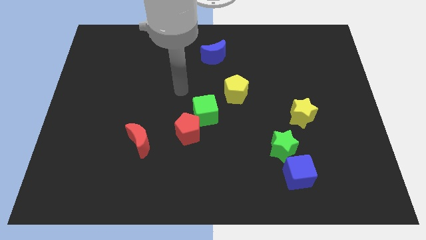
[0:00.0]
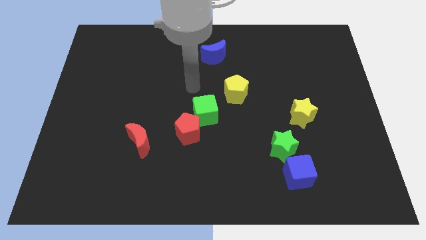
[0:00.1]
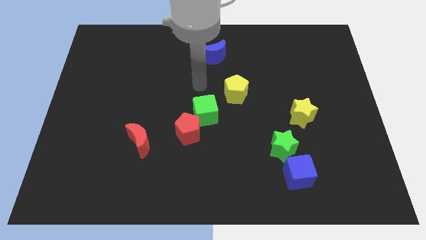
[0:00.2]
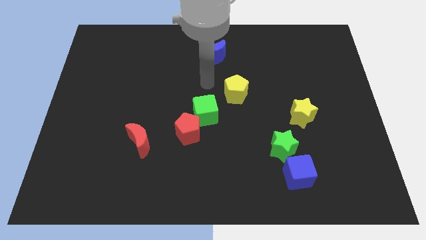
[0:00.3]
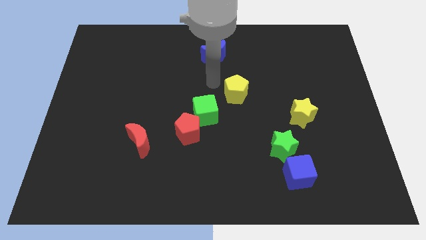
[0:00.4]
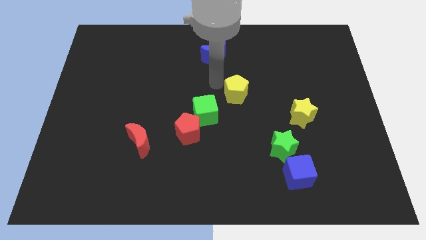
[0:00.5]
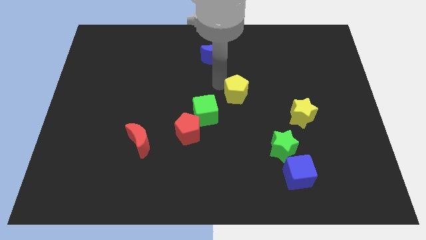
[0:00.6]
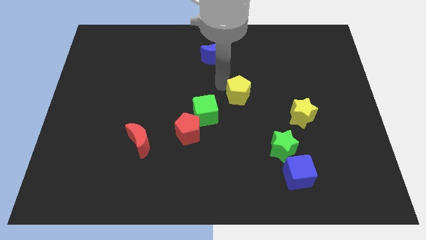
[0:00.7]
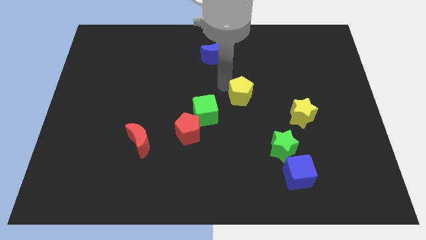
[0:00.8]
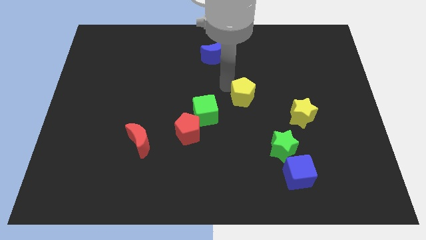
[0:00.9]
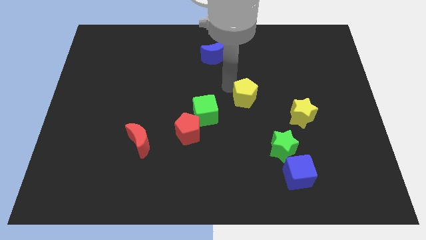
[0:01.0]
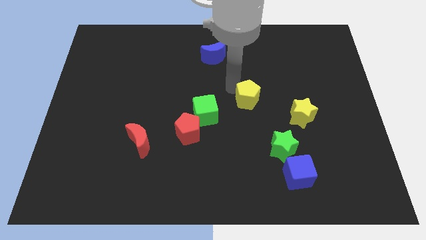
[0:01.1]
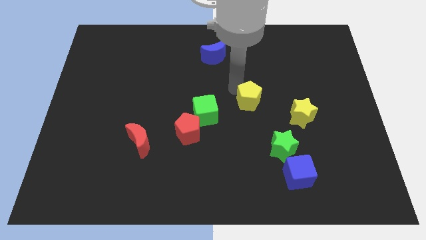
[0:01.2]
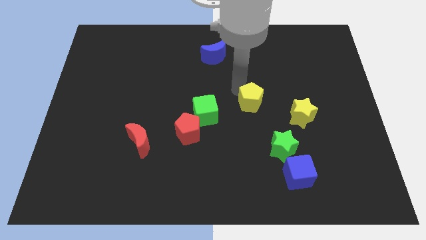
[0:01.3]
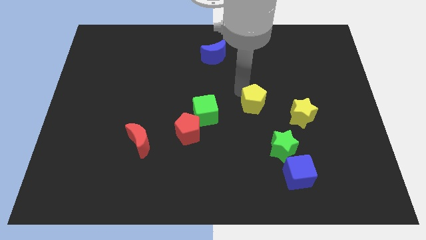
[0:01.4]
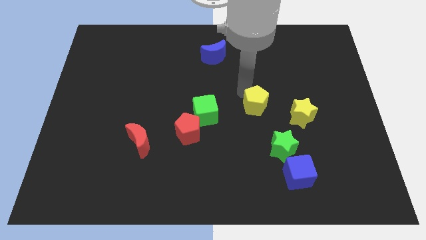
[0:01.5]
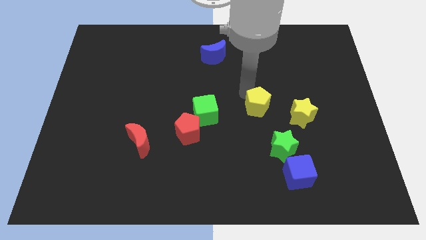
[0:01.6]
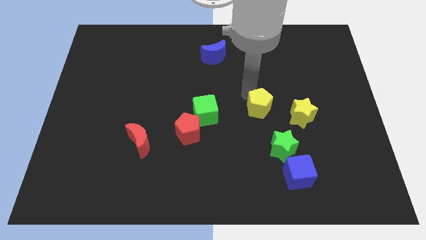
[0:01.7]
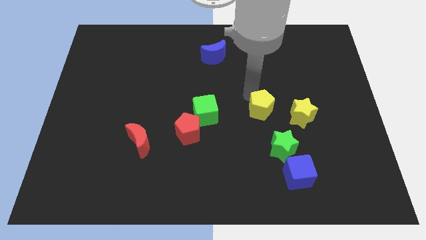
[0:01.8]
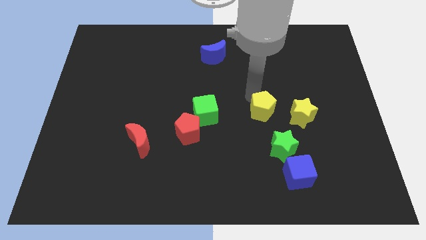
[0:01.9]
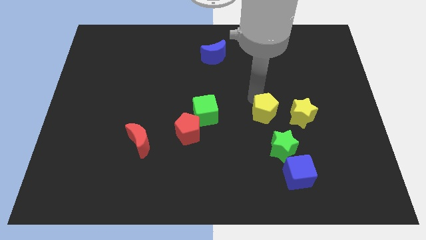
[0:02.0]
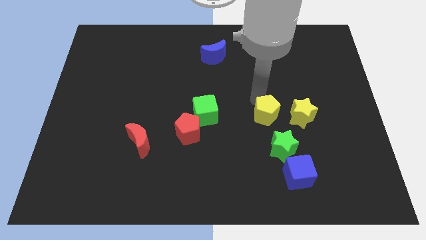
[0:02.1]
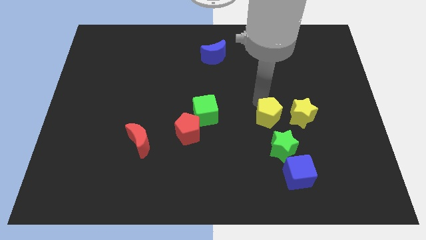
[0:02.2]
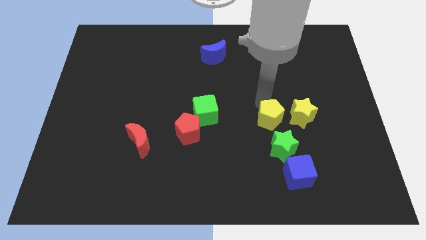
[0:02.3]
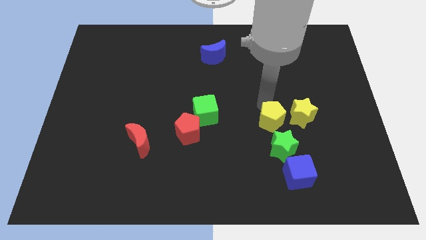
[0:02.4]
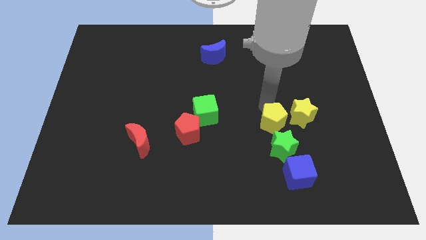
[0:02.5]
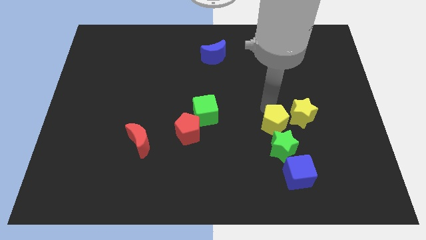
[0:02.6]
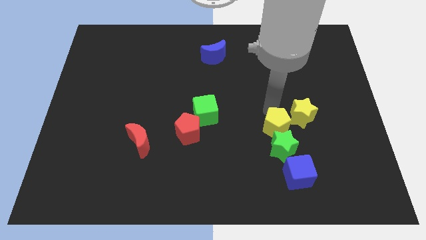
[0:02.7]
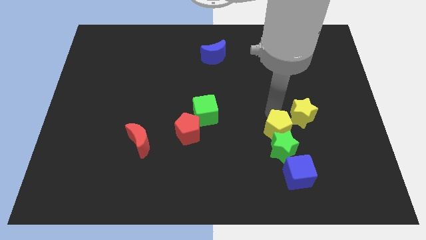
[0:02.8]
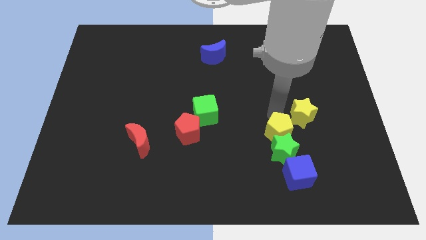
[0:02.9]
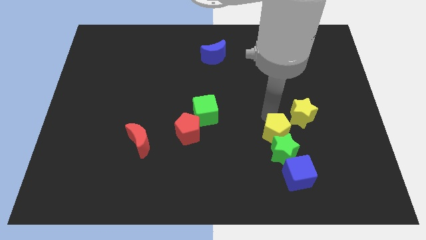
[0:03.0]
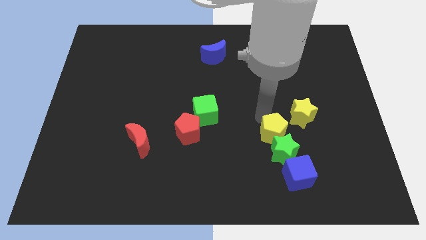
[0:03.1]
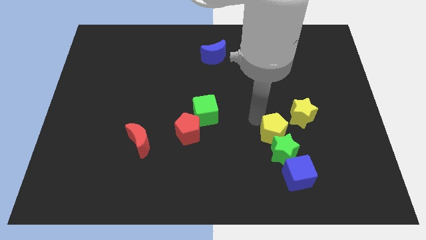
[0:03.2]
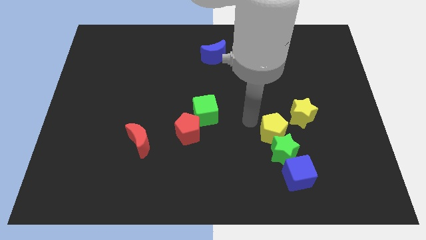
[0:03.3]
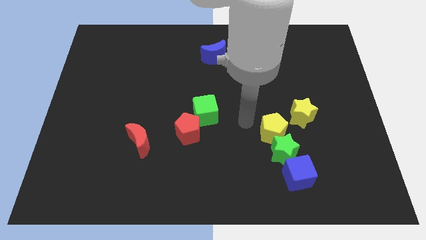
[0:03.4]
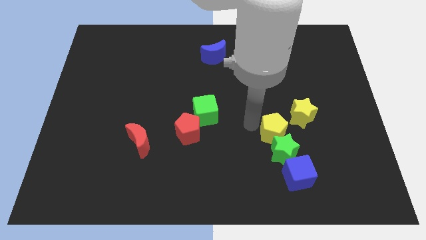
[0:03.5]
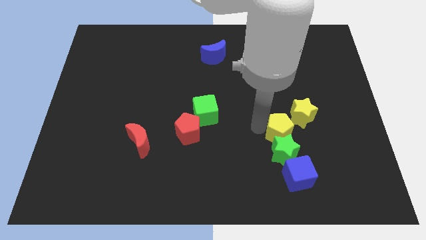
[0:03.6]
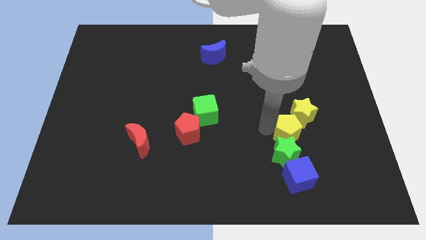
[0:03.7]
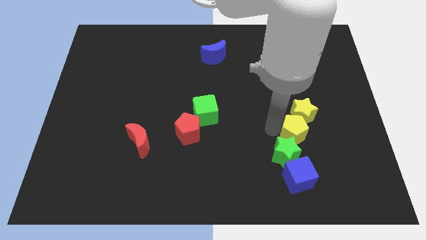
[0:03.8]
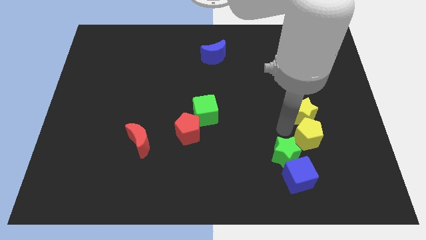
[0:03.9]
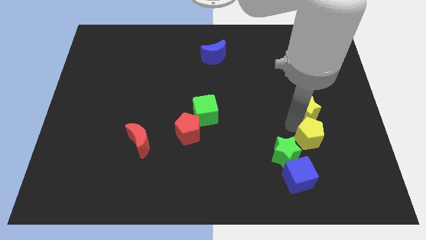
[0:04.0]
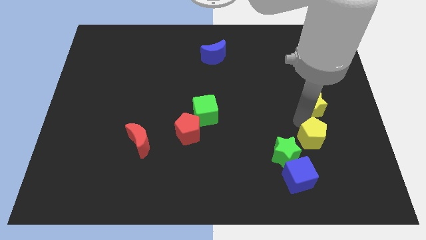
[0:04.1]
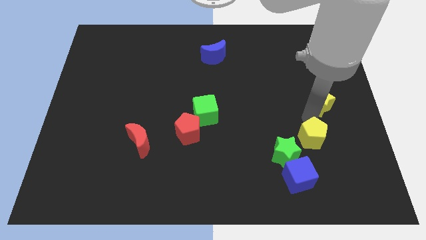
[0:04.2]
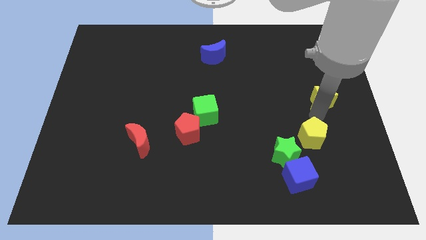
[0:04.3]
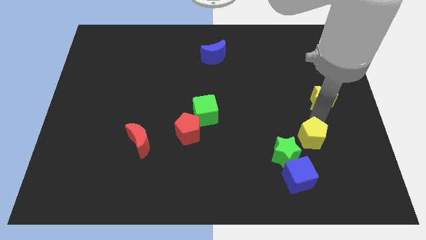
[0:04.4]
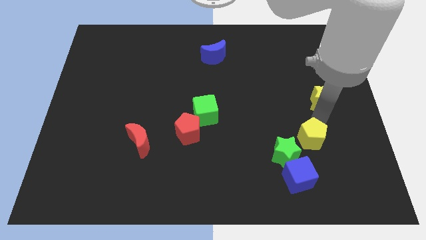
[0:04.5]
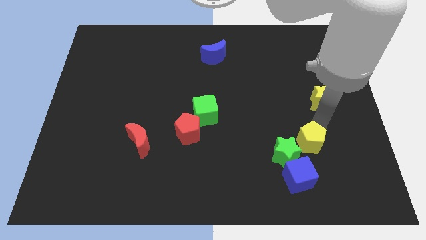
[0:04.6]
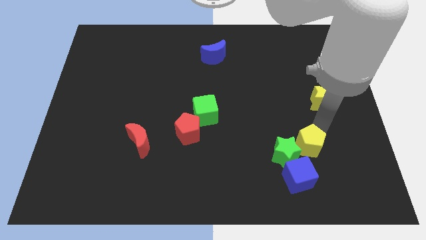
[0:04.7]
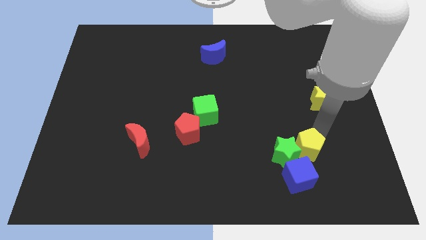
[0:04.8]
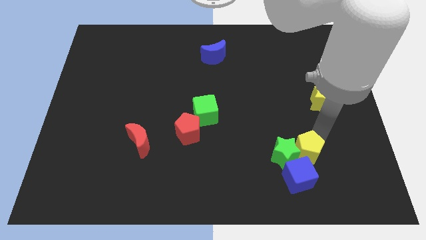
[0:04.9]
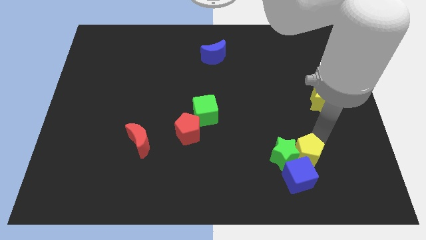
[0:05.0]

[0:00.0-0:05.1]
push the yellow pentagon towards the blue cube

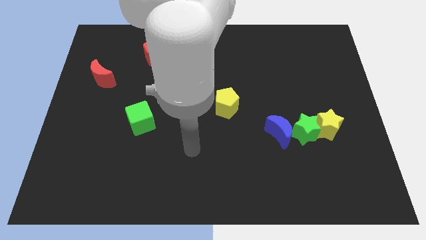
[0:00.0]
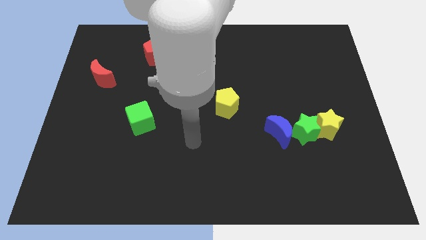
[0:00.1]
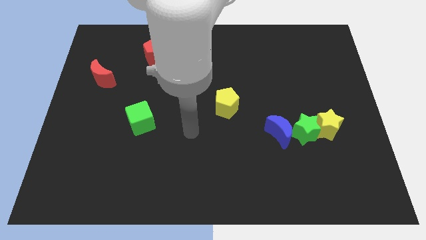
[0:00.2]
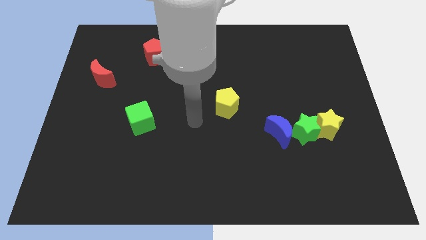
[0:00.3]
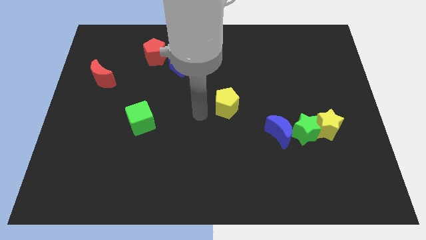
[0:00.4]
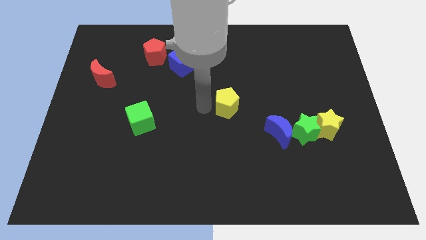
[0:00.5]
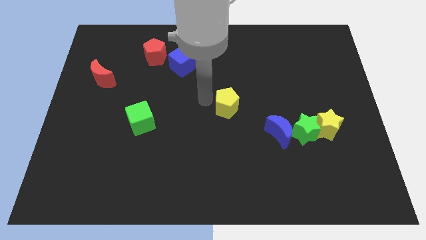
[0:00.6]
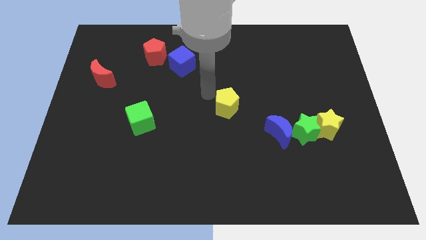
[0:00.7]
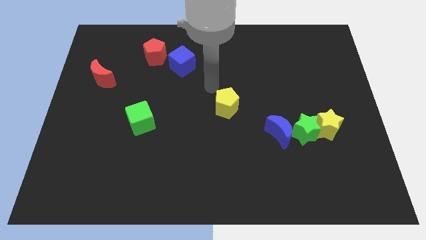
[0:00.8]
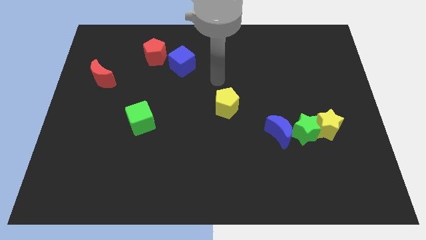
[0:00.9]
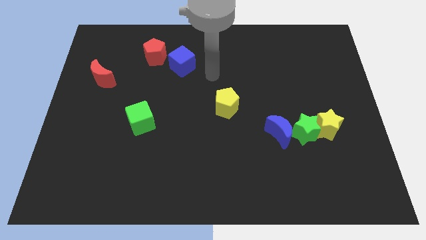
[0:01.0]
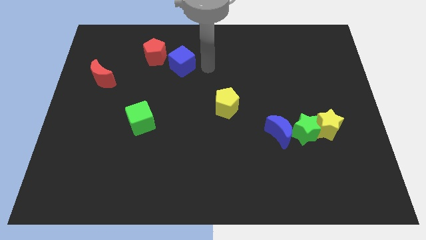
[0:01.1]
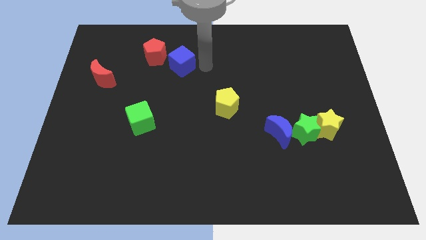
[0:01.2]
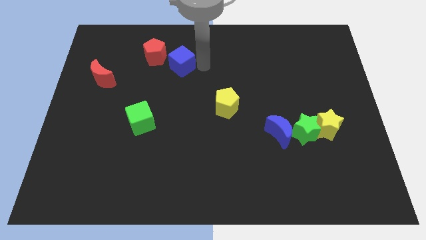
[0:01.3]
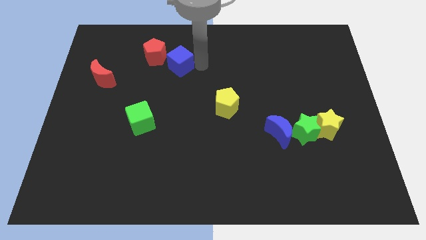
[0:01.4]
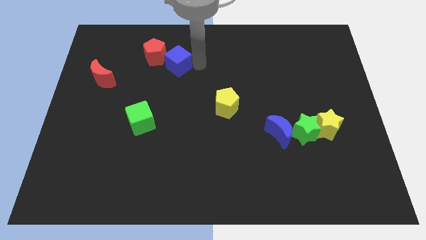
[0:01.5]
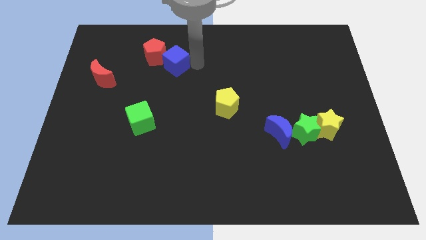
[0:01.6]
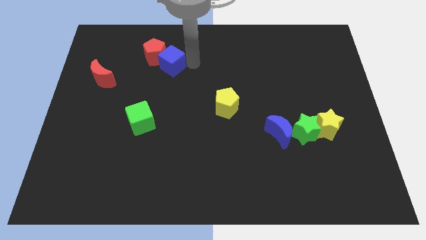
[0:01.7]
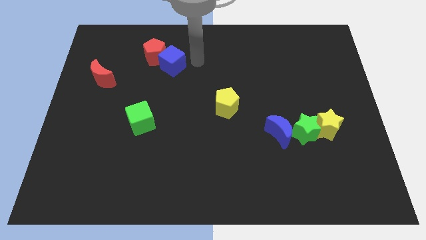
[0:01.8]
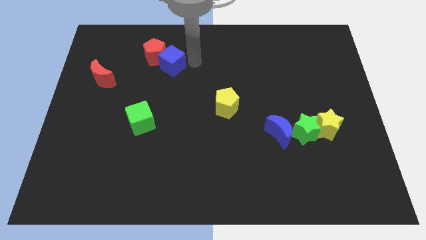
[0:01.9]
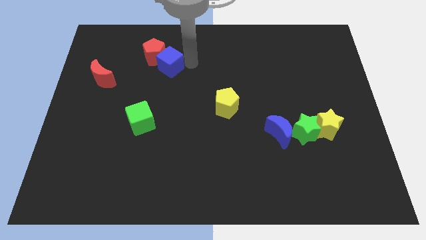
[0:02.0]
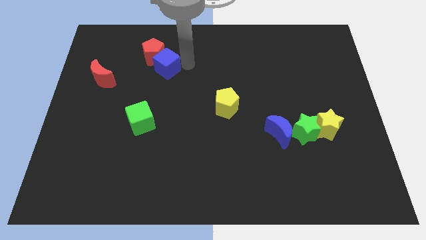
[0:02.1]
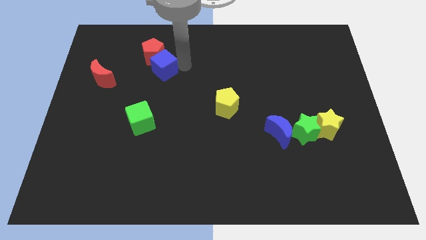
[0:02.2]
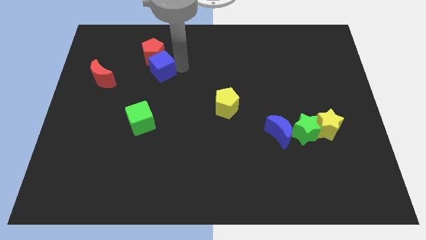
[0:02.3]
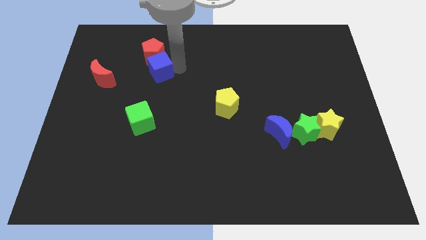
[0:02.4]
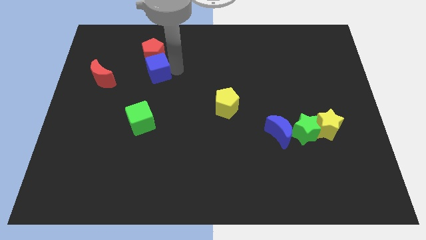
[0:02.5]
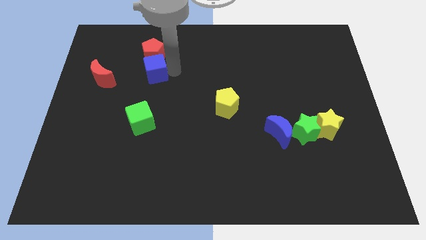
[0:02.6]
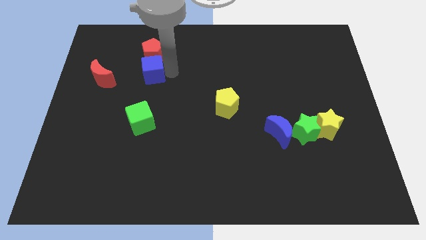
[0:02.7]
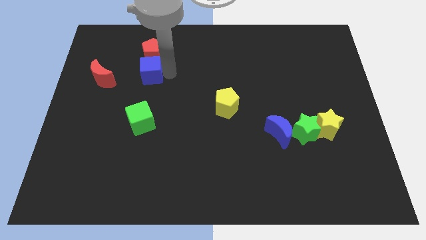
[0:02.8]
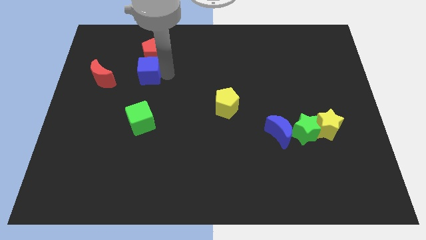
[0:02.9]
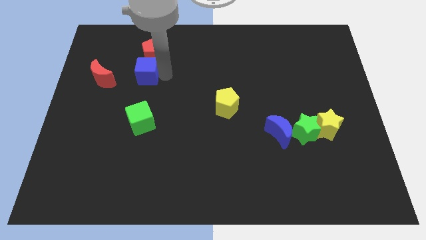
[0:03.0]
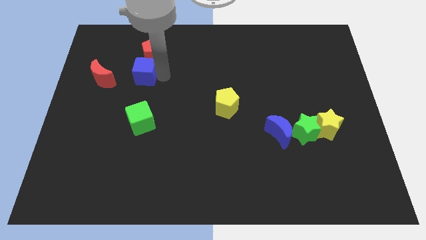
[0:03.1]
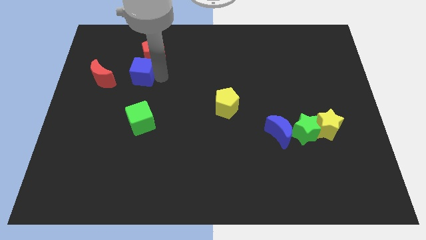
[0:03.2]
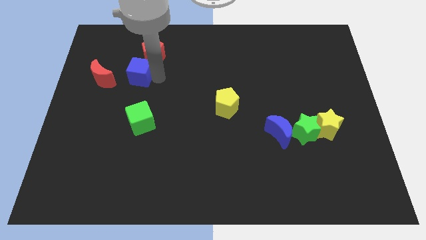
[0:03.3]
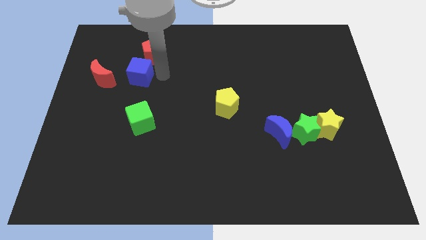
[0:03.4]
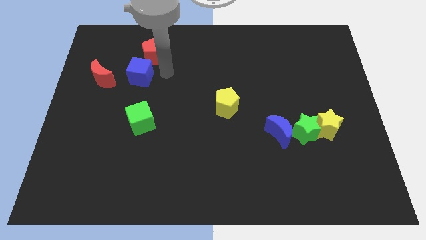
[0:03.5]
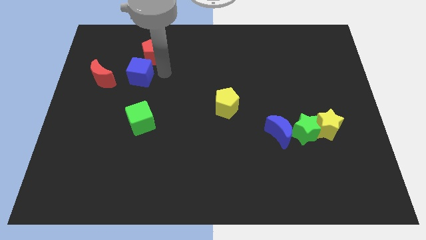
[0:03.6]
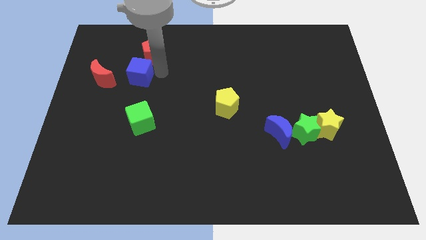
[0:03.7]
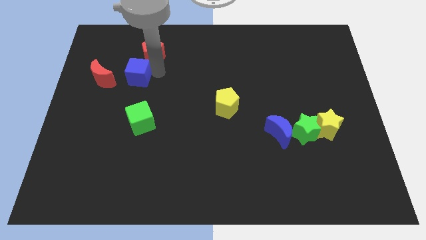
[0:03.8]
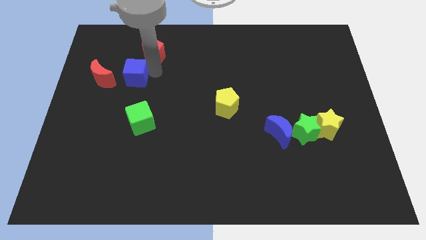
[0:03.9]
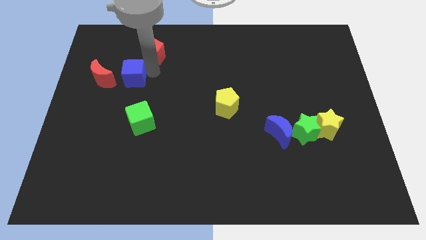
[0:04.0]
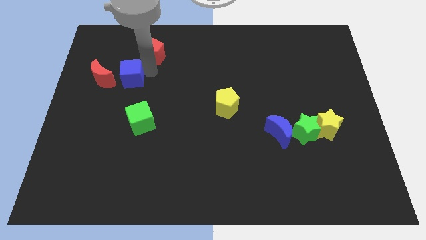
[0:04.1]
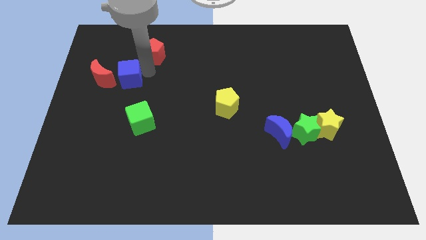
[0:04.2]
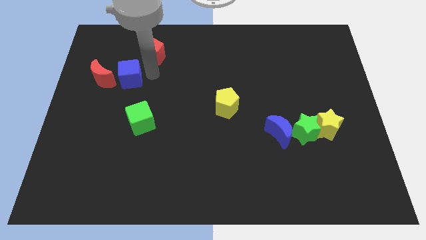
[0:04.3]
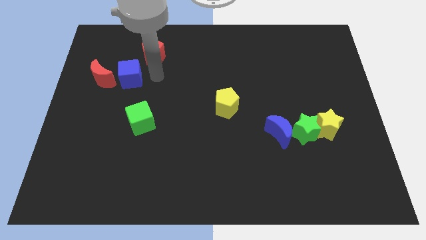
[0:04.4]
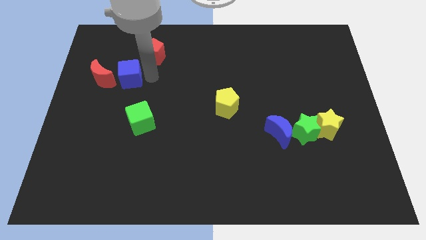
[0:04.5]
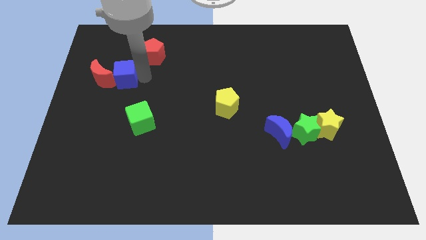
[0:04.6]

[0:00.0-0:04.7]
move the blue cube to the red moon
